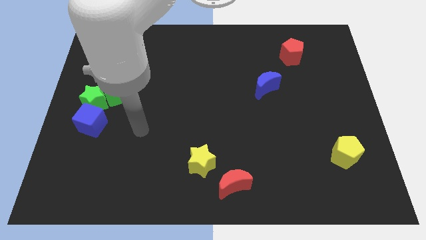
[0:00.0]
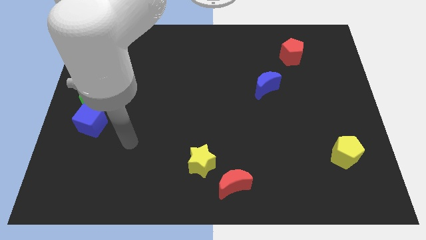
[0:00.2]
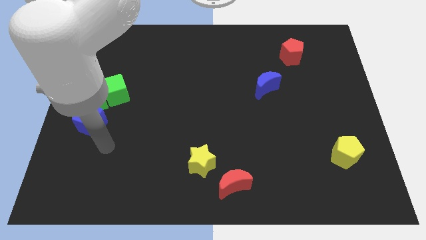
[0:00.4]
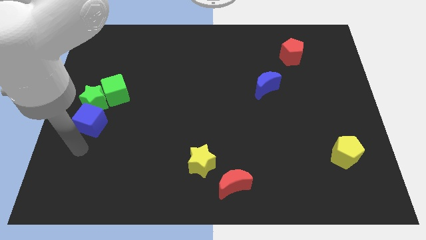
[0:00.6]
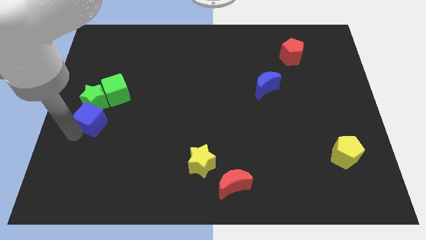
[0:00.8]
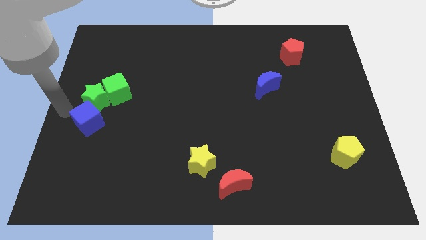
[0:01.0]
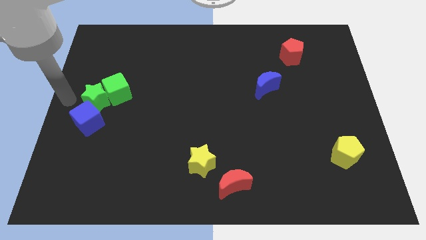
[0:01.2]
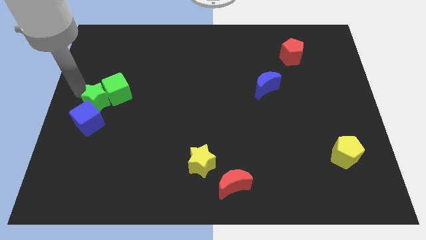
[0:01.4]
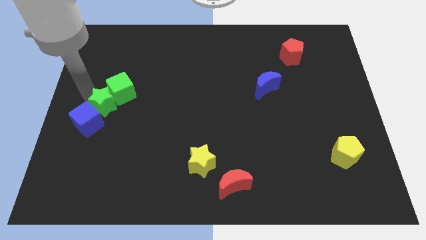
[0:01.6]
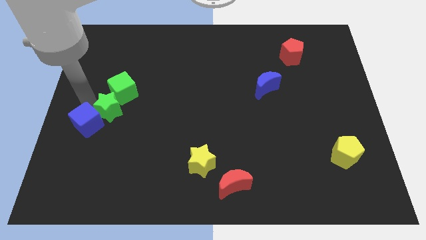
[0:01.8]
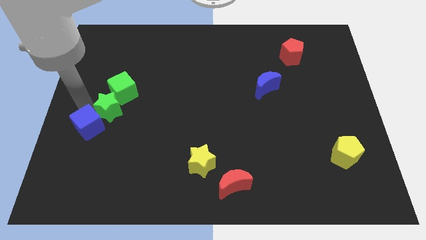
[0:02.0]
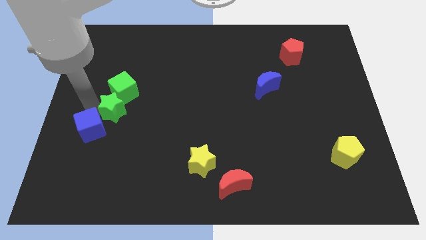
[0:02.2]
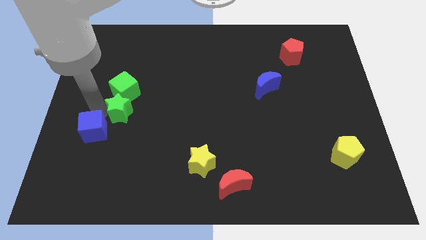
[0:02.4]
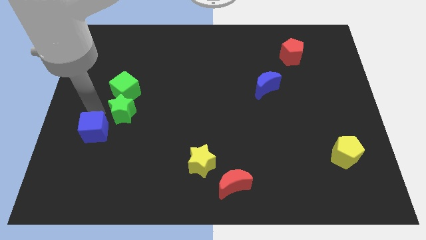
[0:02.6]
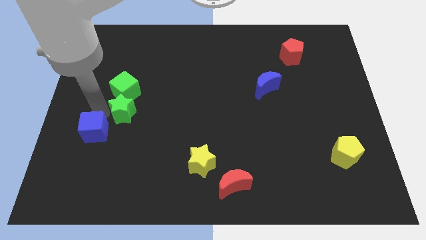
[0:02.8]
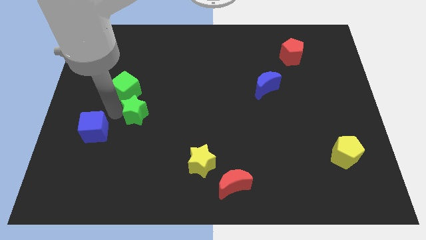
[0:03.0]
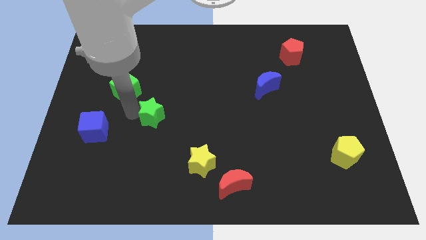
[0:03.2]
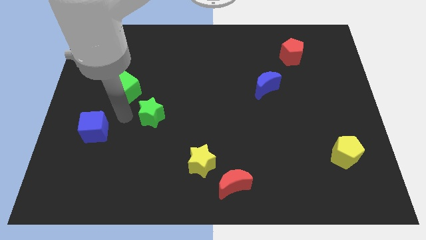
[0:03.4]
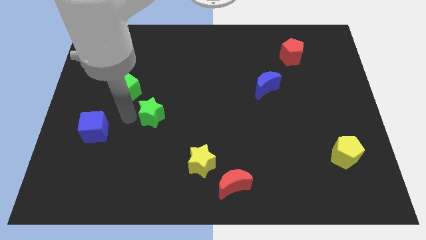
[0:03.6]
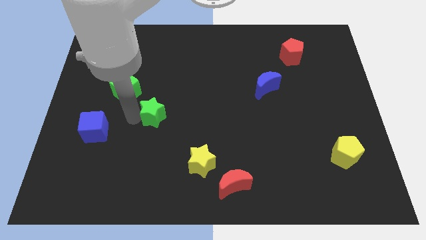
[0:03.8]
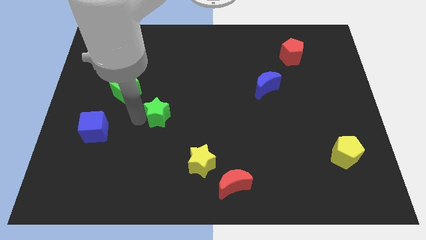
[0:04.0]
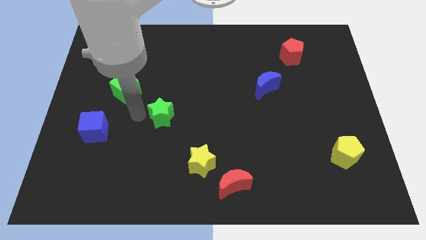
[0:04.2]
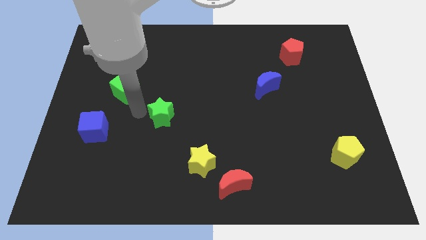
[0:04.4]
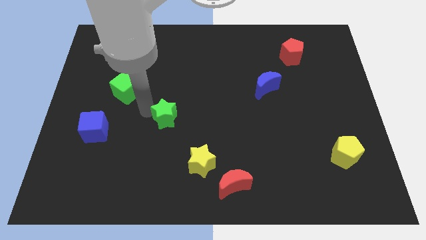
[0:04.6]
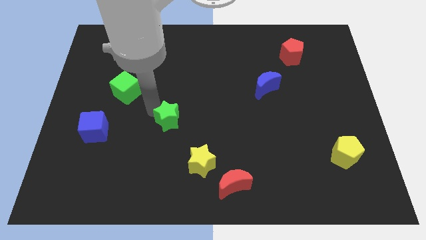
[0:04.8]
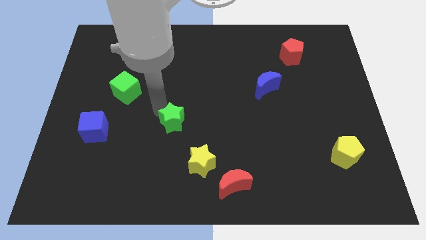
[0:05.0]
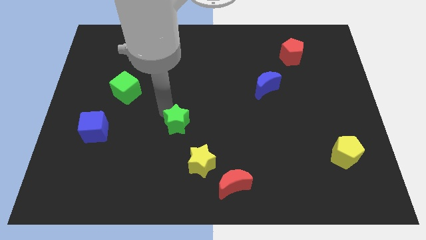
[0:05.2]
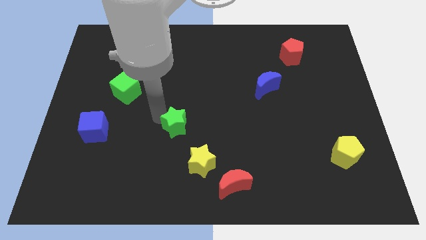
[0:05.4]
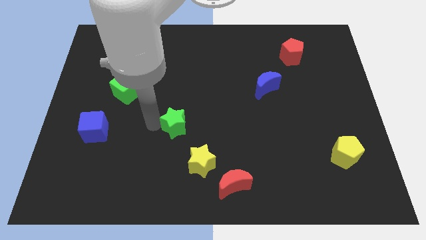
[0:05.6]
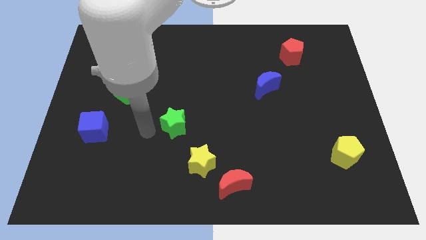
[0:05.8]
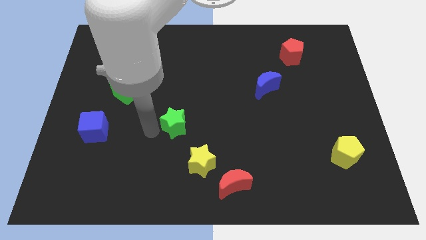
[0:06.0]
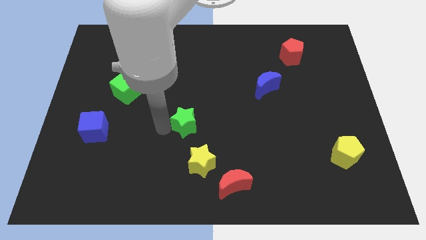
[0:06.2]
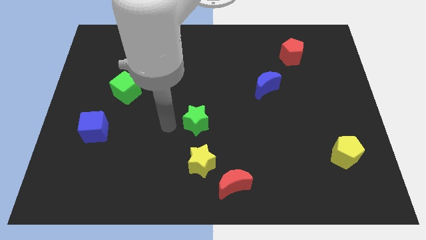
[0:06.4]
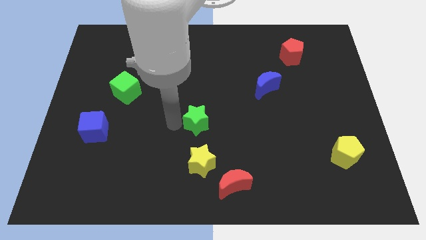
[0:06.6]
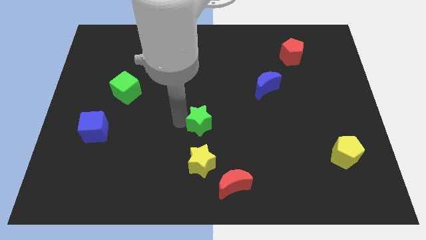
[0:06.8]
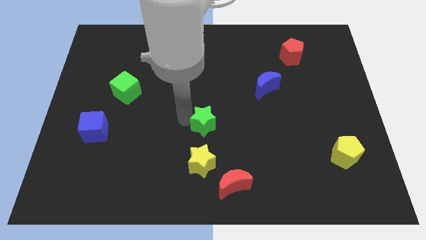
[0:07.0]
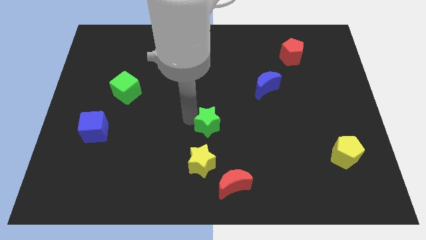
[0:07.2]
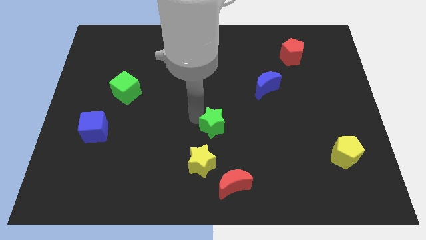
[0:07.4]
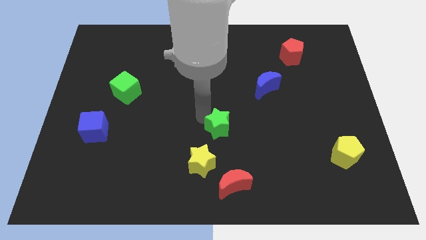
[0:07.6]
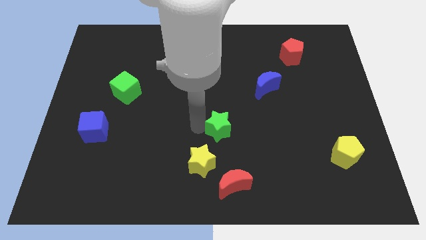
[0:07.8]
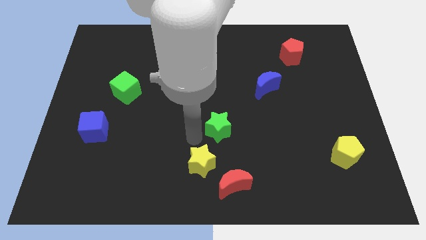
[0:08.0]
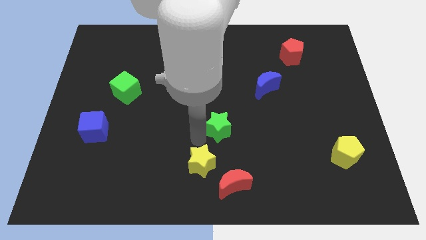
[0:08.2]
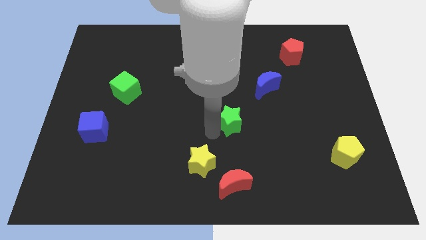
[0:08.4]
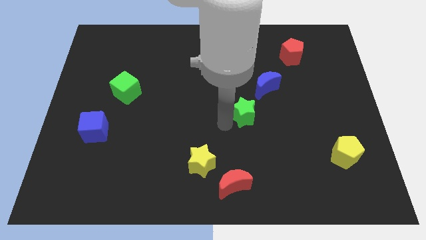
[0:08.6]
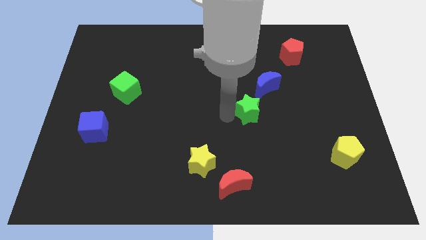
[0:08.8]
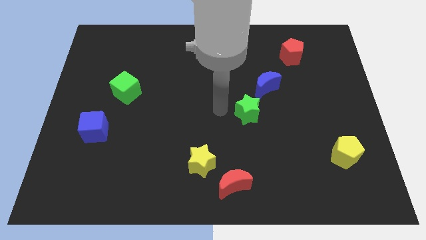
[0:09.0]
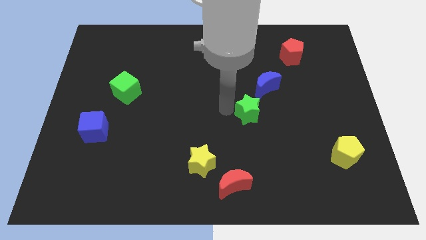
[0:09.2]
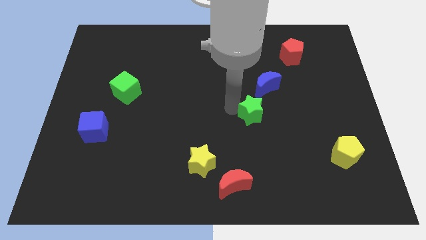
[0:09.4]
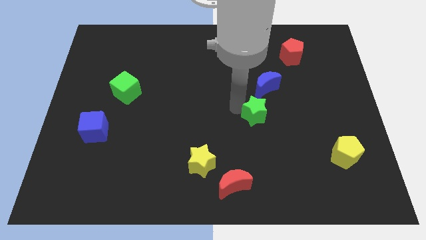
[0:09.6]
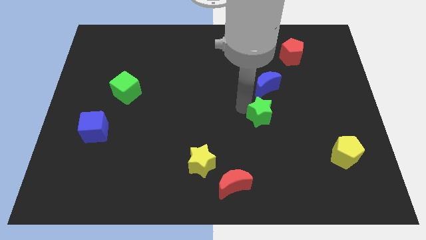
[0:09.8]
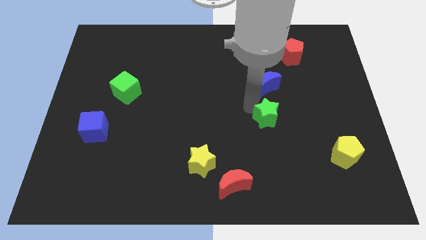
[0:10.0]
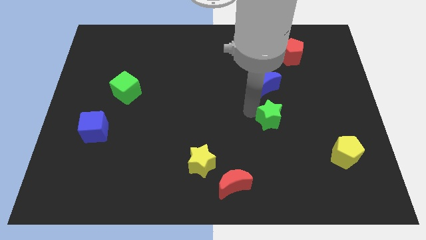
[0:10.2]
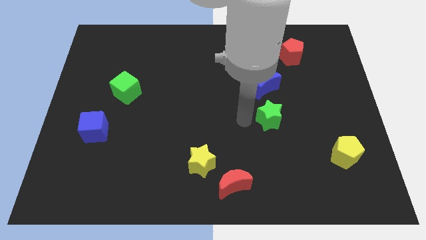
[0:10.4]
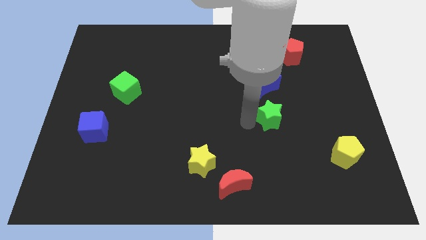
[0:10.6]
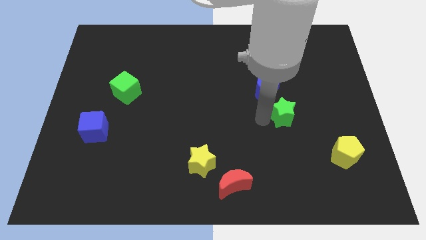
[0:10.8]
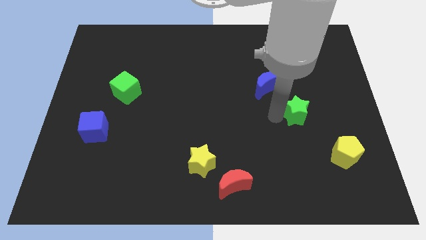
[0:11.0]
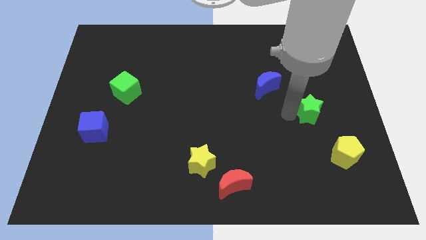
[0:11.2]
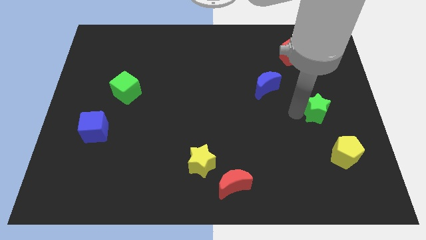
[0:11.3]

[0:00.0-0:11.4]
slide the green star above the yellow pentagon

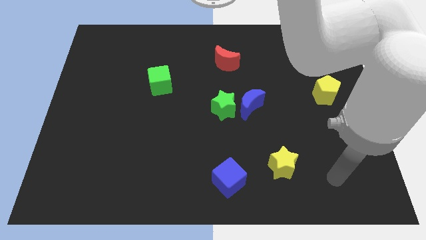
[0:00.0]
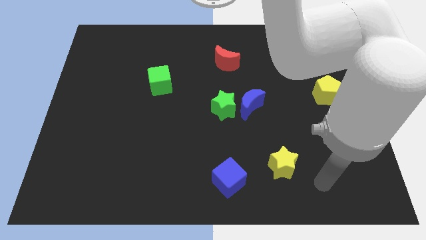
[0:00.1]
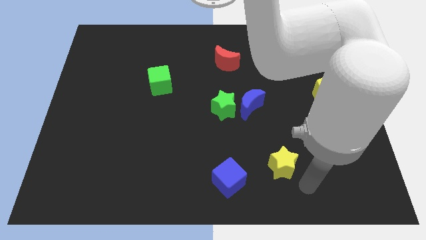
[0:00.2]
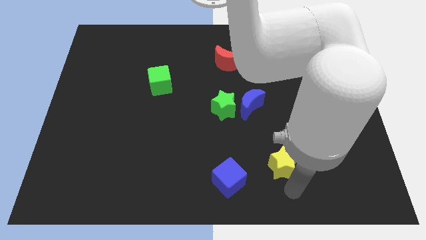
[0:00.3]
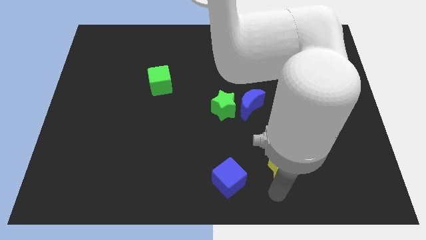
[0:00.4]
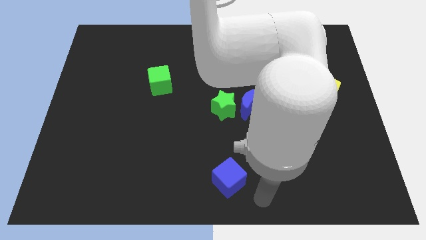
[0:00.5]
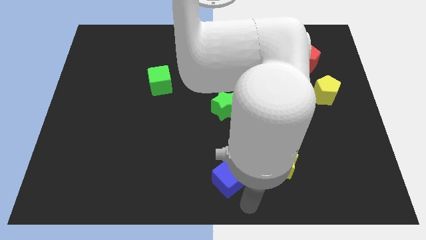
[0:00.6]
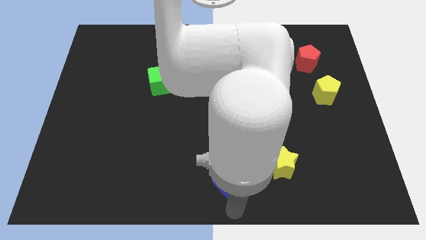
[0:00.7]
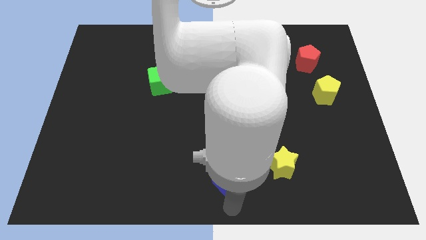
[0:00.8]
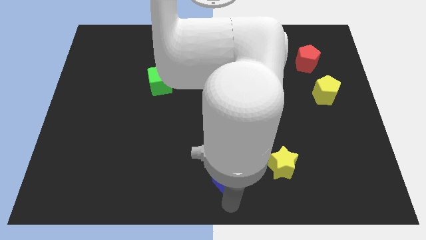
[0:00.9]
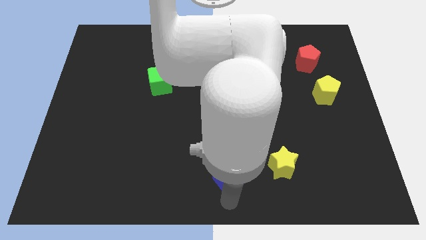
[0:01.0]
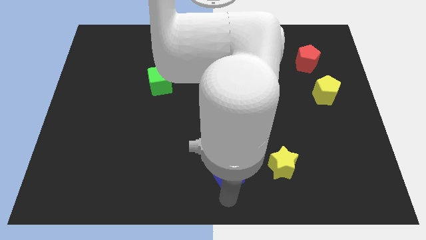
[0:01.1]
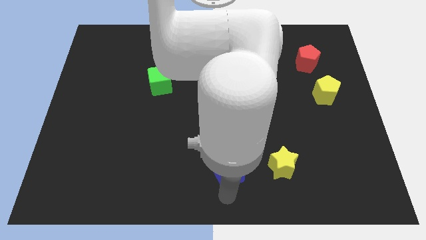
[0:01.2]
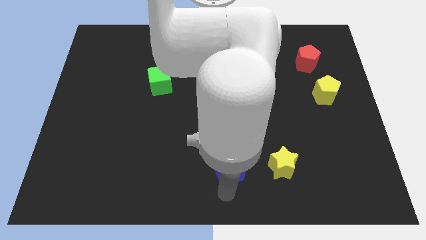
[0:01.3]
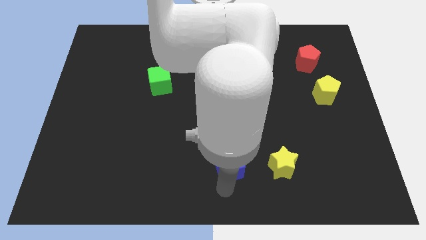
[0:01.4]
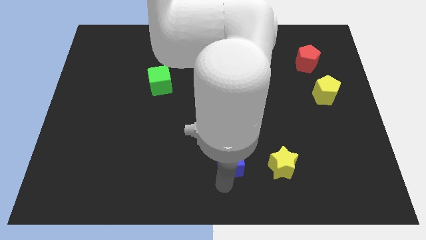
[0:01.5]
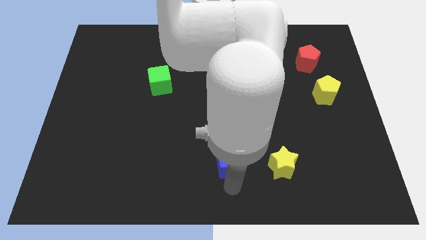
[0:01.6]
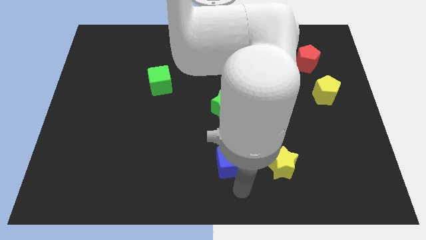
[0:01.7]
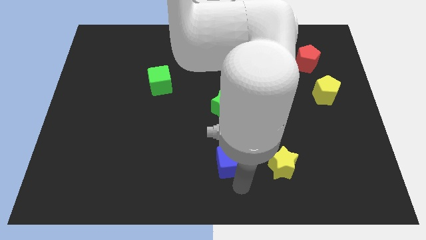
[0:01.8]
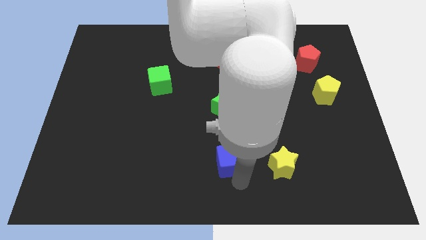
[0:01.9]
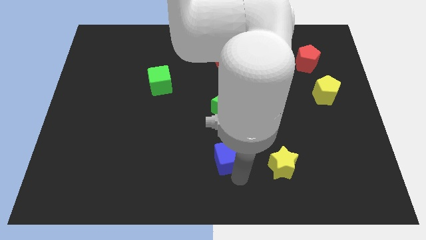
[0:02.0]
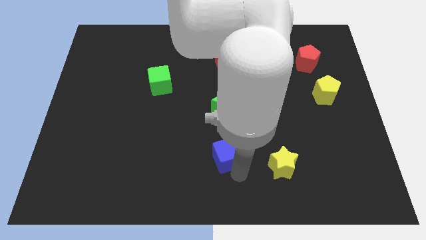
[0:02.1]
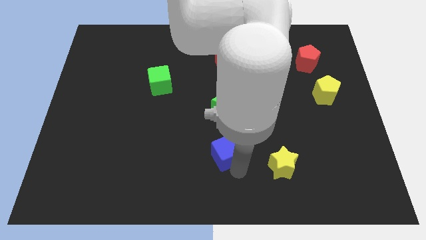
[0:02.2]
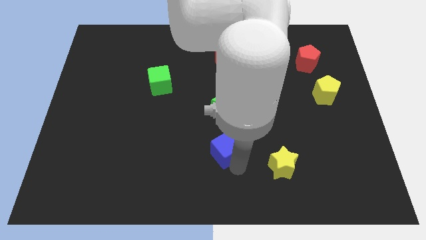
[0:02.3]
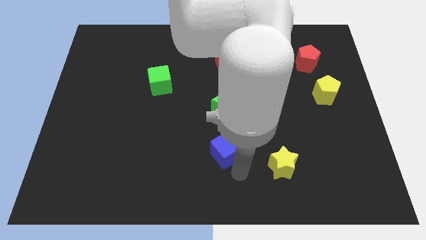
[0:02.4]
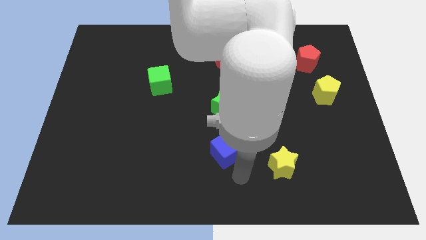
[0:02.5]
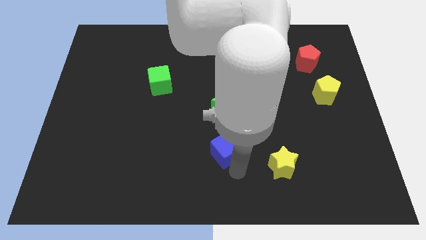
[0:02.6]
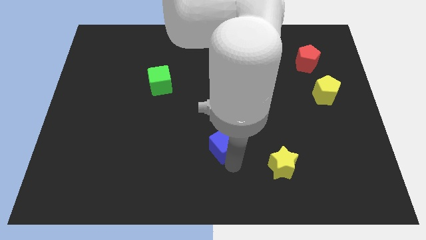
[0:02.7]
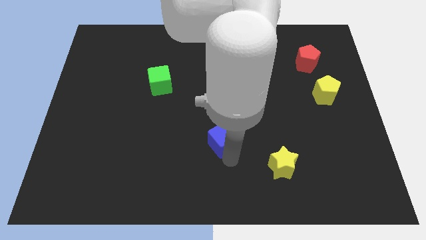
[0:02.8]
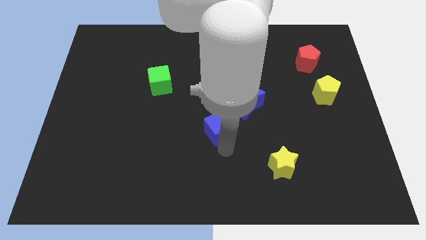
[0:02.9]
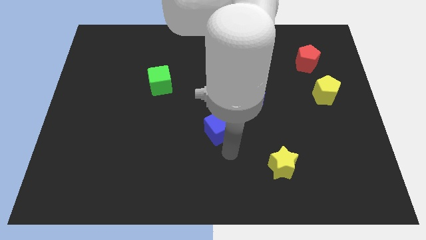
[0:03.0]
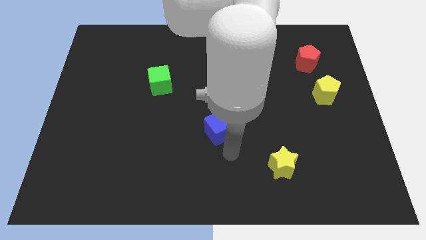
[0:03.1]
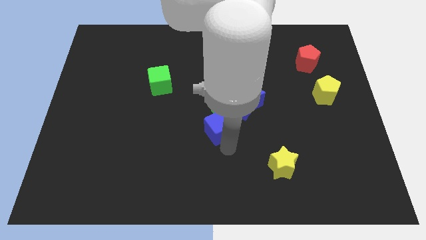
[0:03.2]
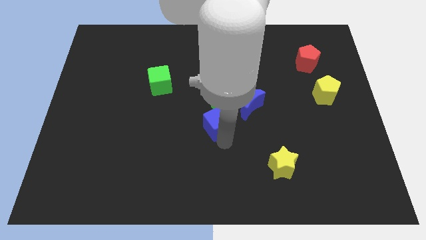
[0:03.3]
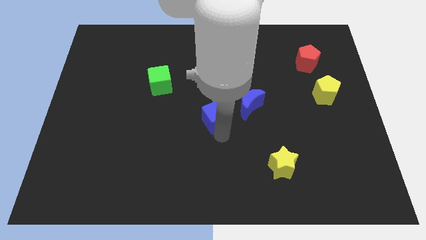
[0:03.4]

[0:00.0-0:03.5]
move the blue cube left of the blue moon
